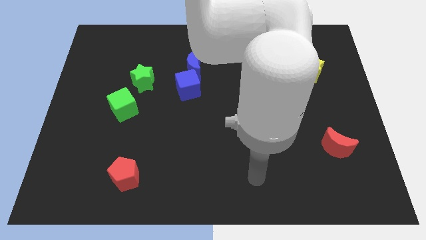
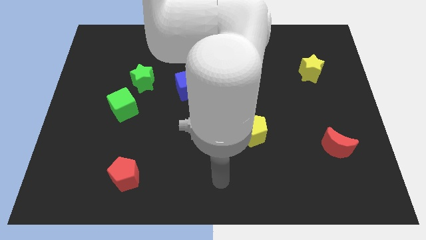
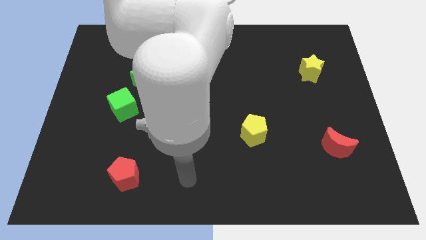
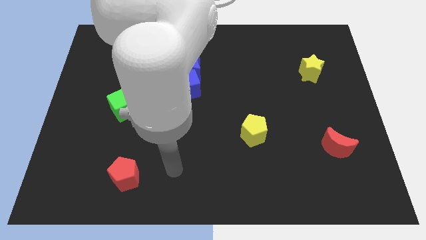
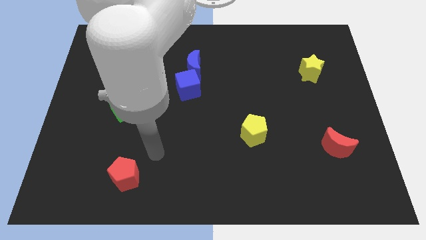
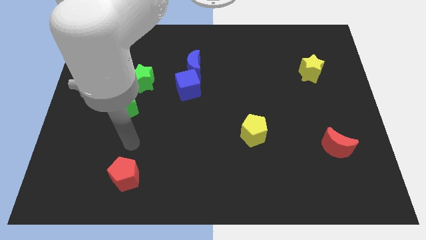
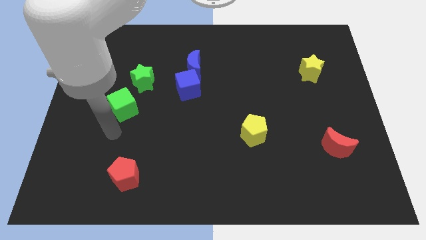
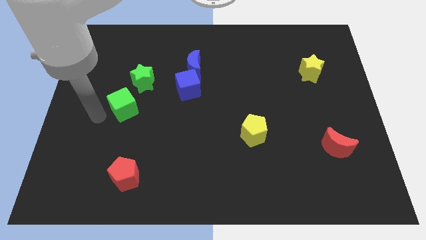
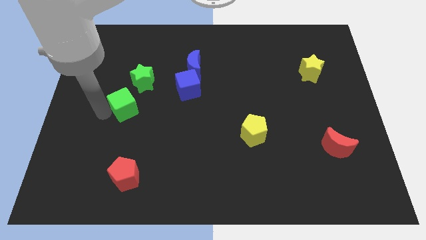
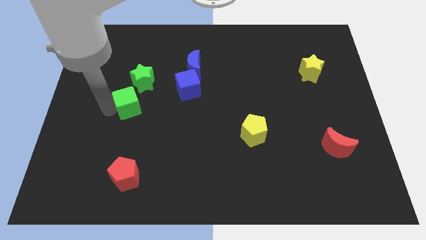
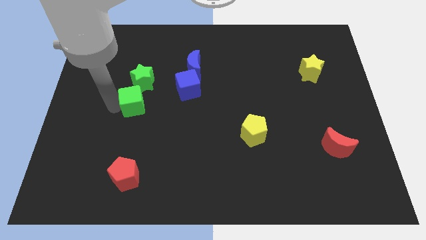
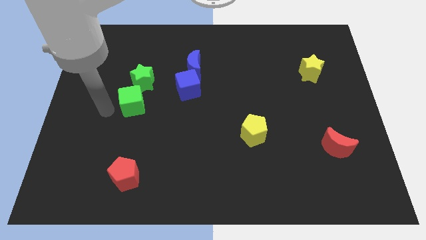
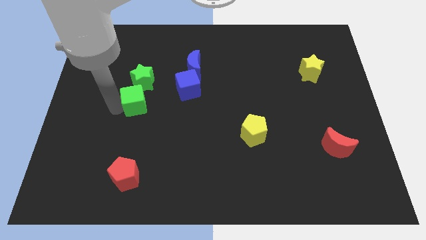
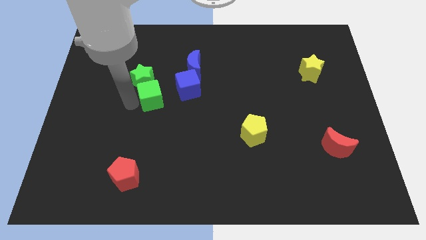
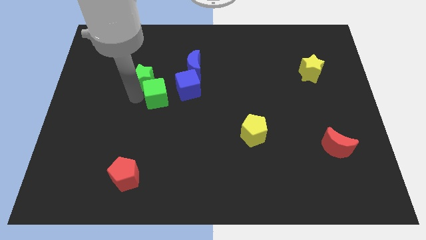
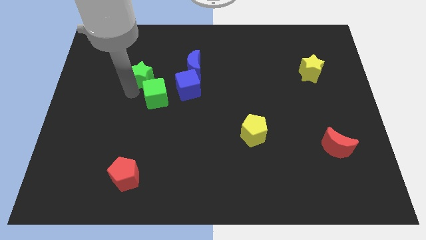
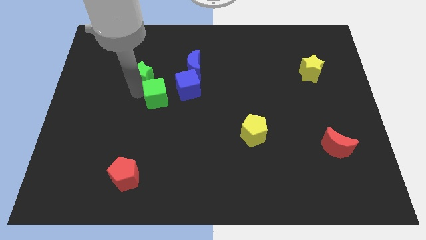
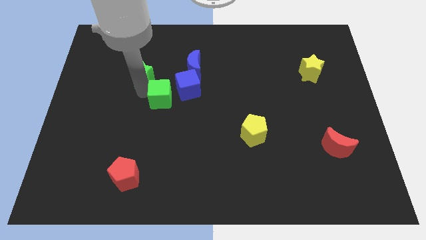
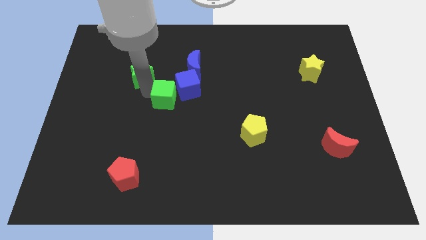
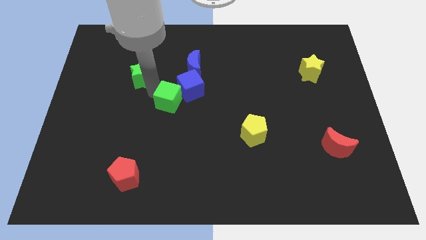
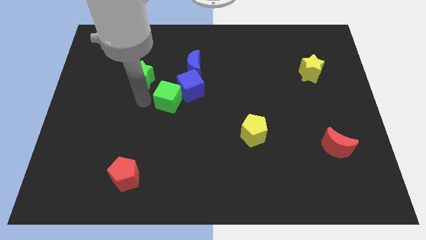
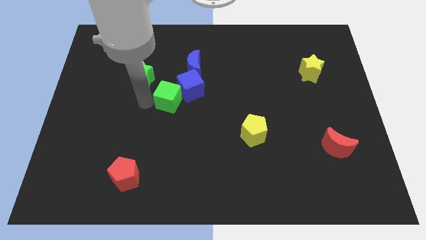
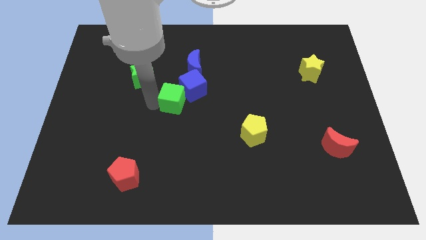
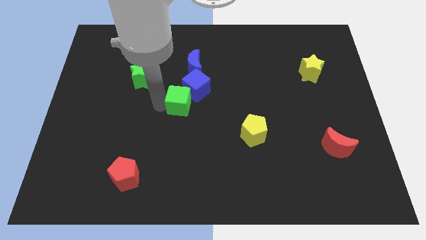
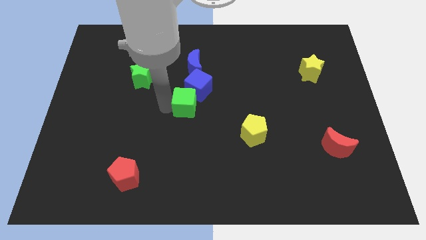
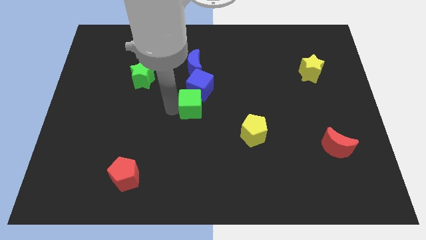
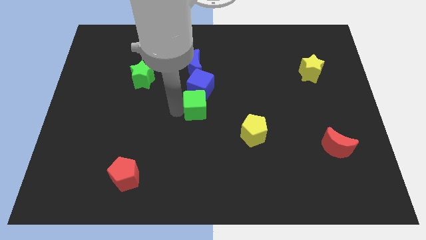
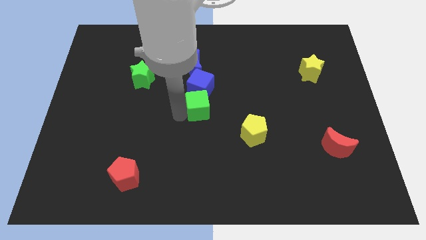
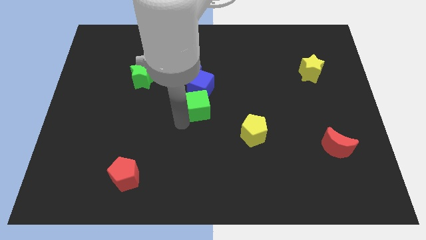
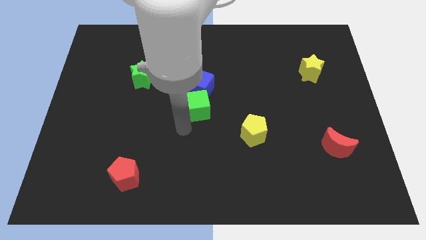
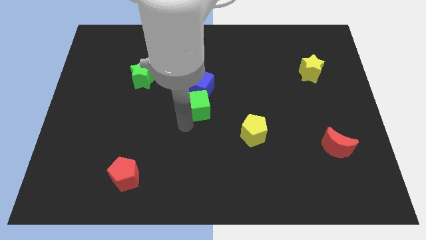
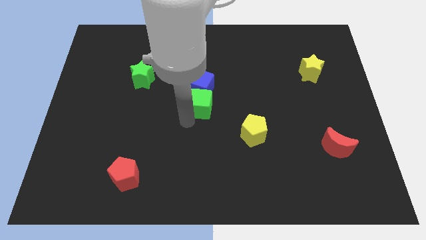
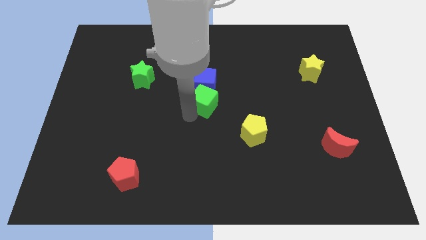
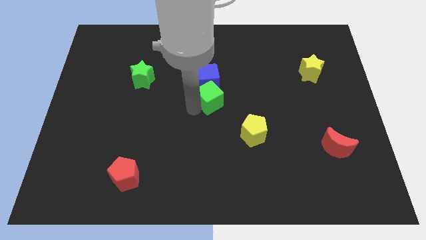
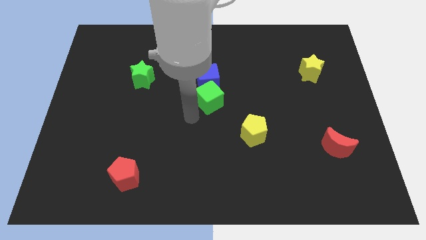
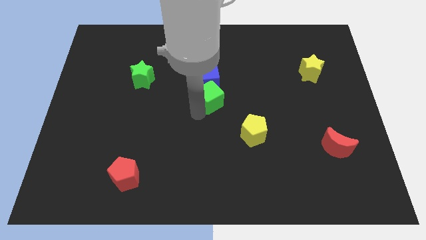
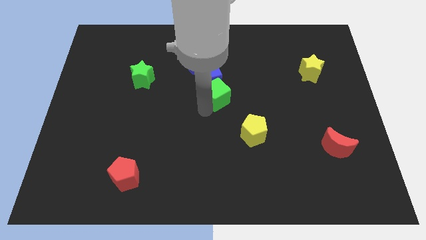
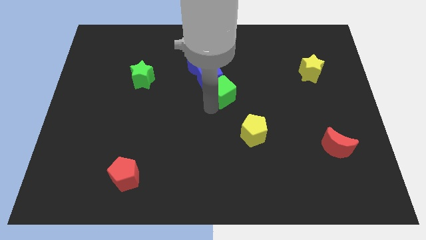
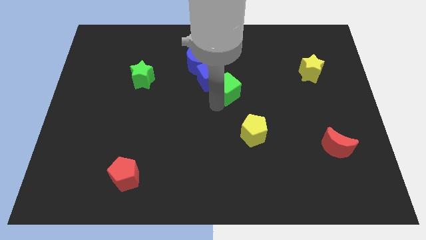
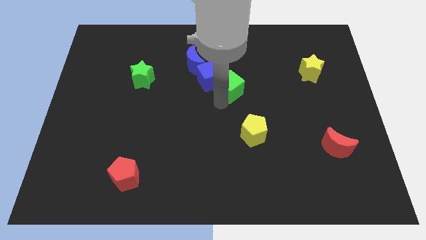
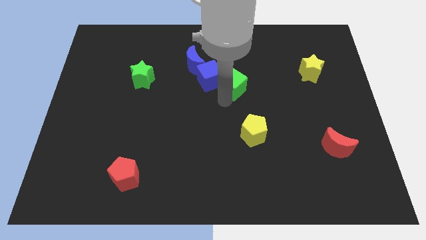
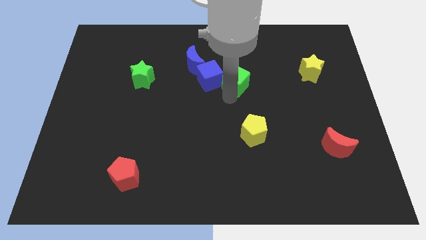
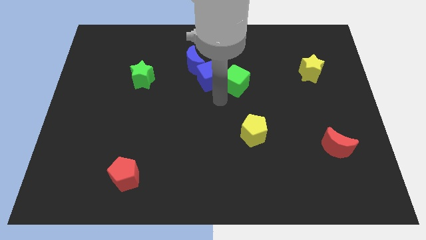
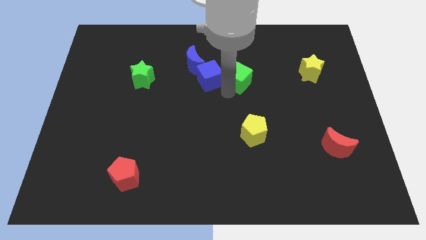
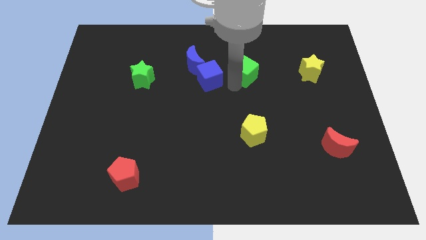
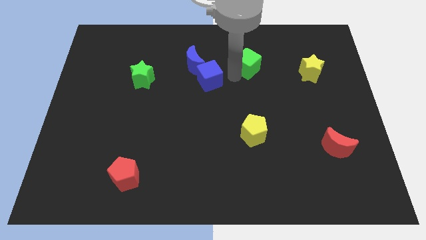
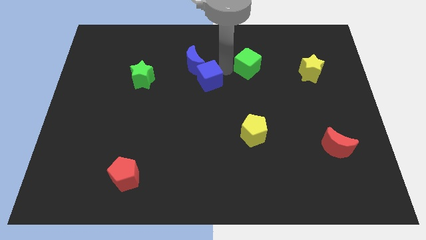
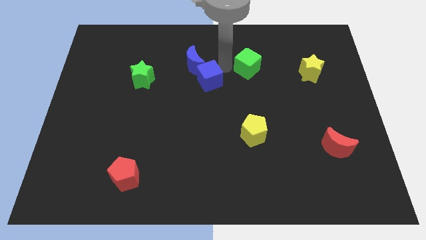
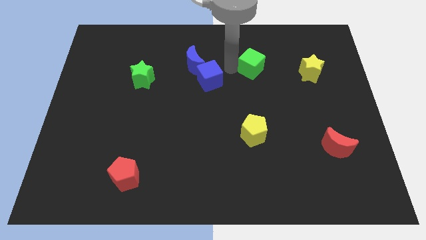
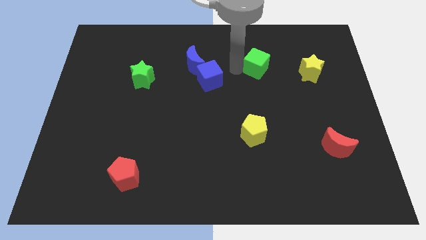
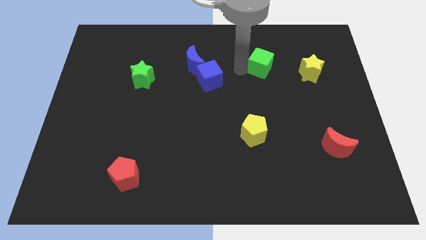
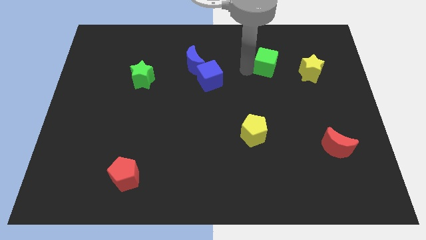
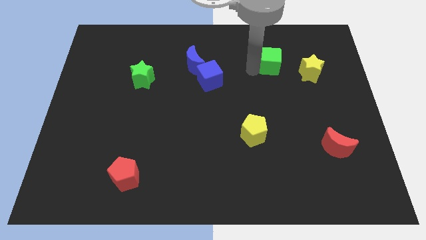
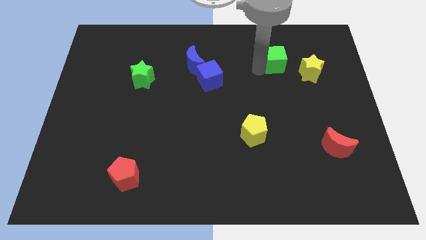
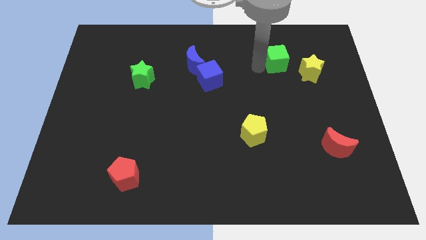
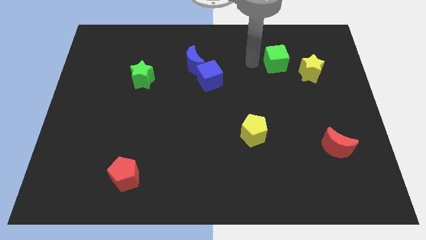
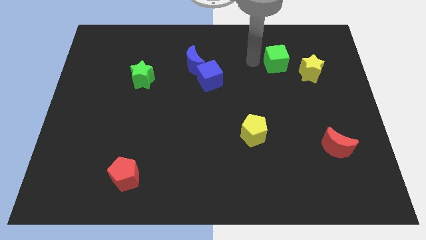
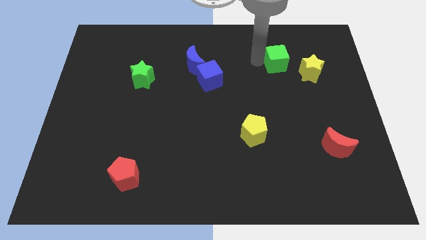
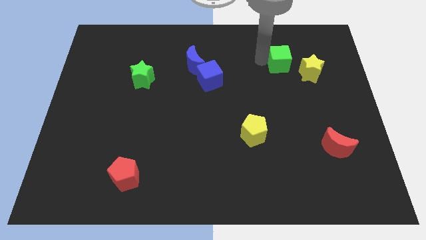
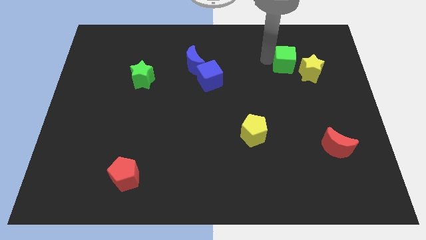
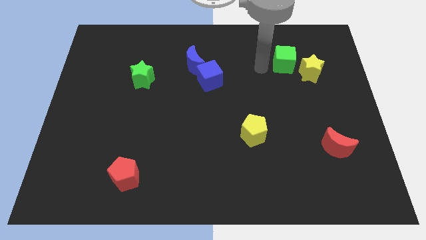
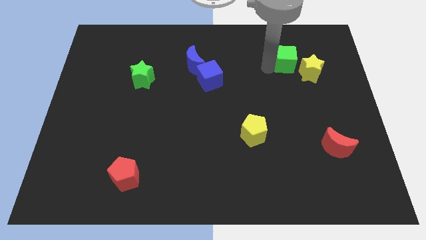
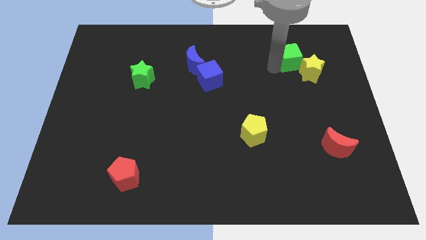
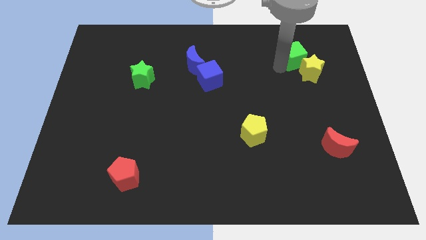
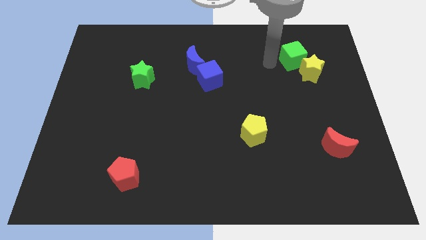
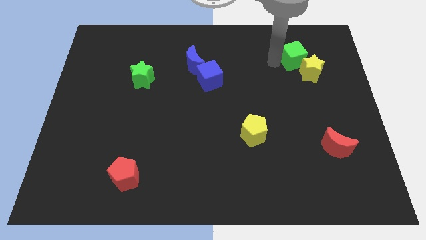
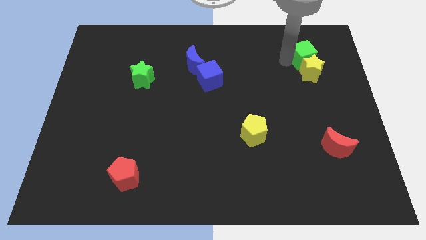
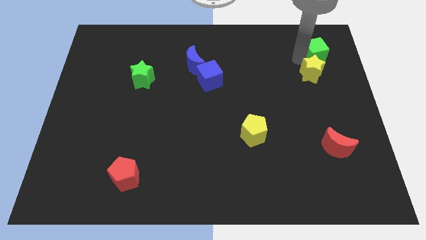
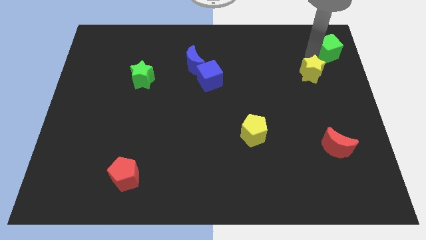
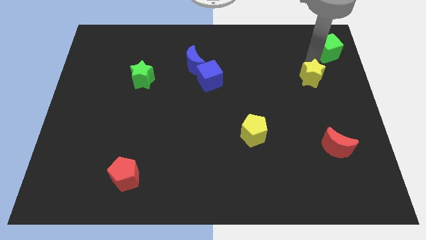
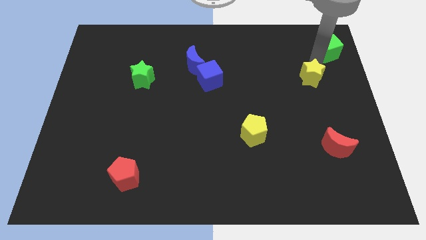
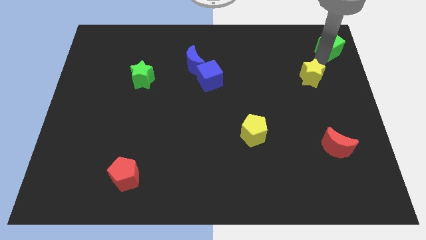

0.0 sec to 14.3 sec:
put the green cube to the top right of the board
